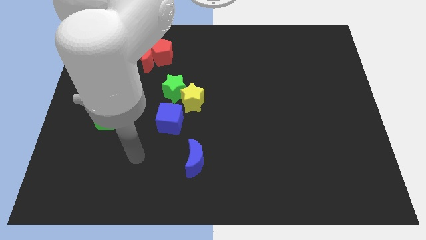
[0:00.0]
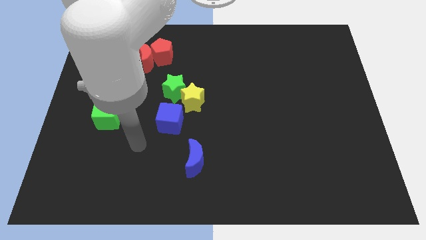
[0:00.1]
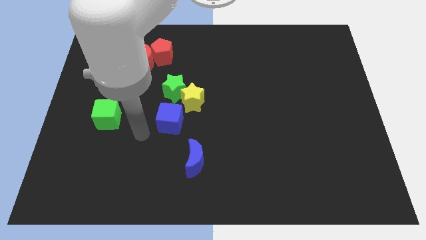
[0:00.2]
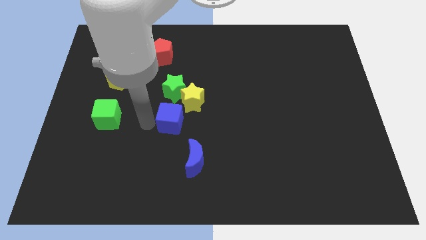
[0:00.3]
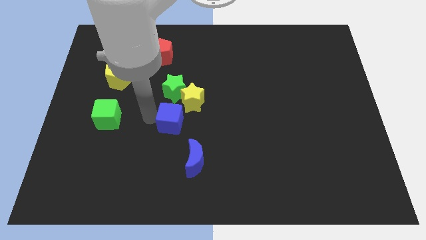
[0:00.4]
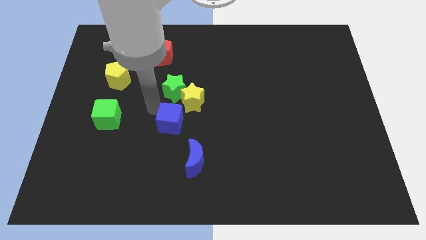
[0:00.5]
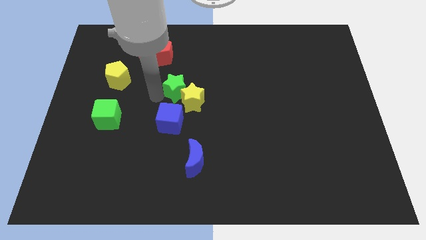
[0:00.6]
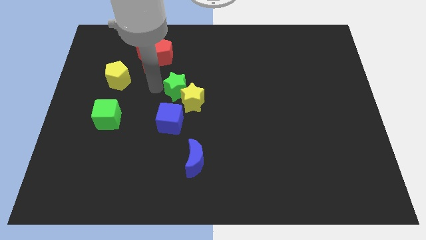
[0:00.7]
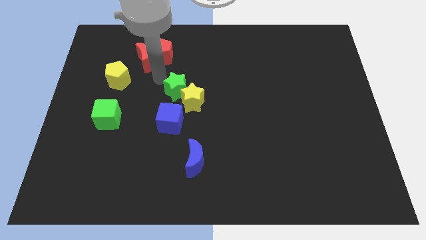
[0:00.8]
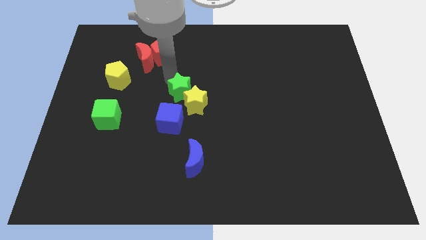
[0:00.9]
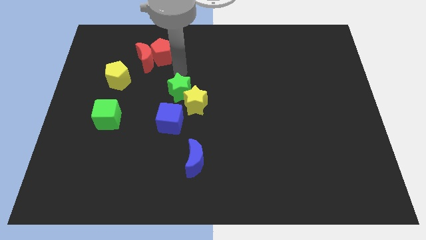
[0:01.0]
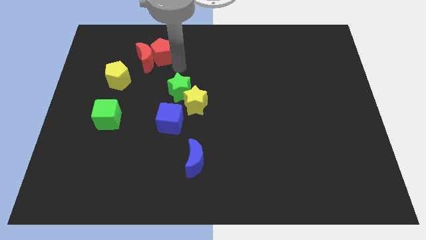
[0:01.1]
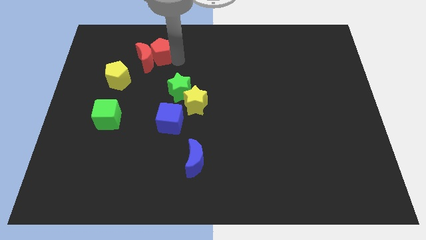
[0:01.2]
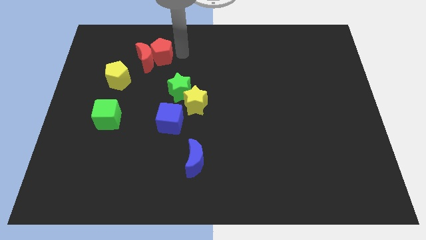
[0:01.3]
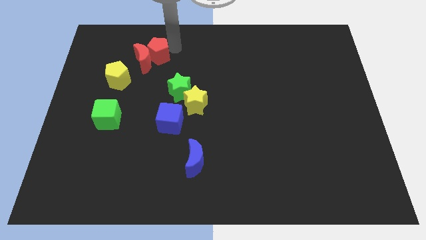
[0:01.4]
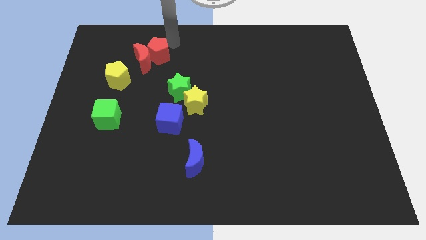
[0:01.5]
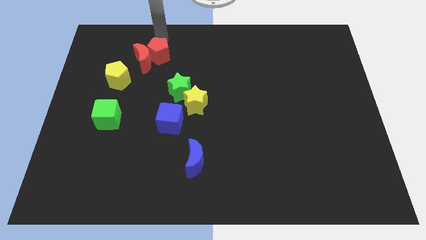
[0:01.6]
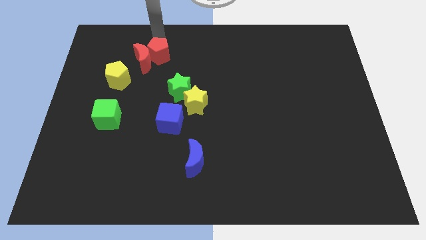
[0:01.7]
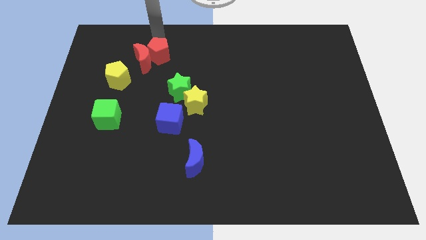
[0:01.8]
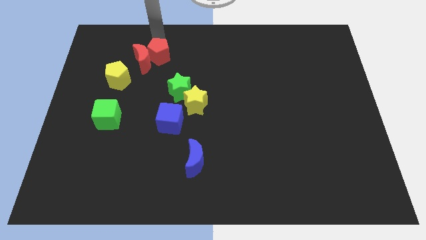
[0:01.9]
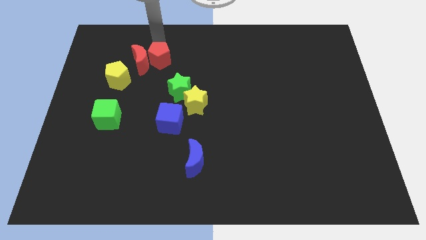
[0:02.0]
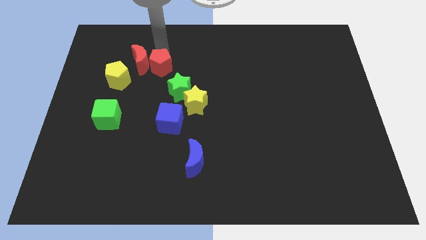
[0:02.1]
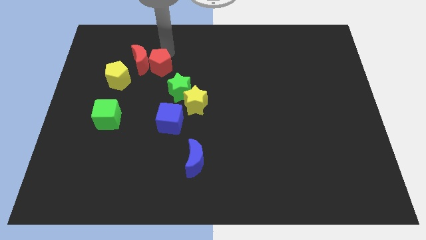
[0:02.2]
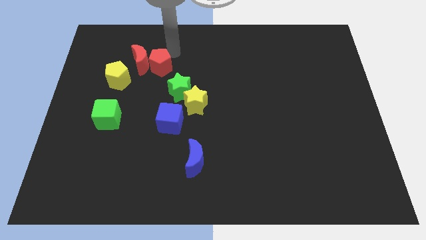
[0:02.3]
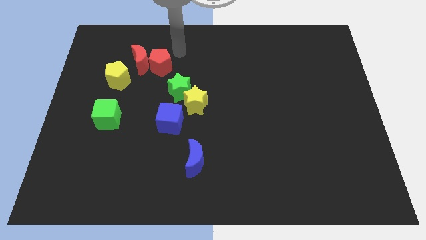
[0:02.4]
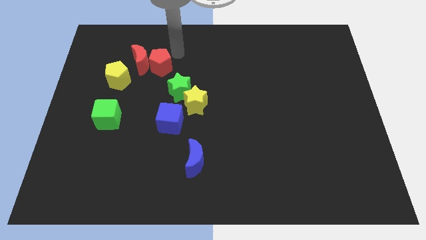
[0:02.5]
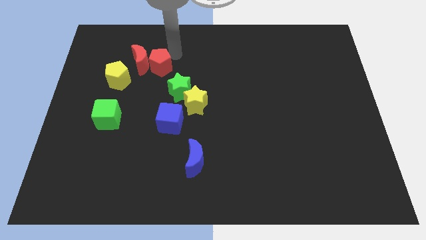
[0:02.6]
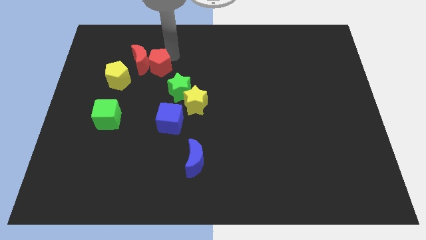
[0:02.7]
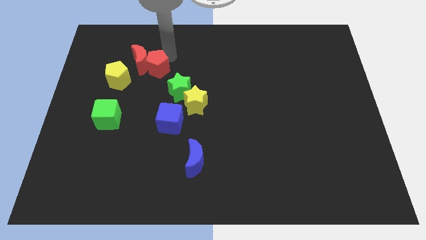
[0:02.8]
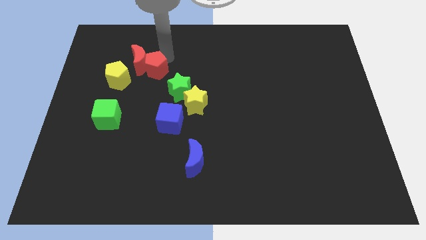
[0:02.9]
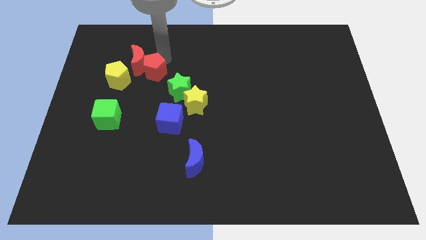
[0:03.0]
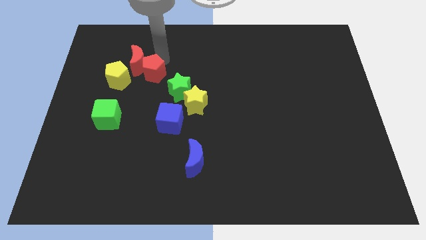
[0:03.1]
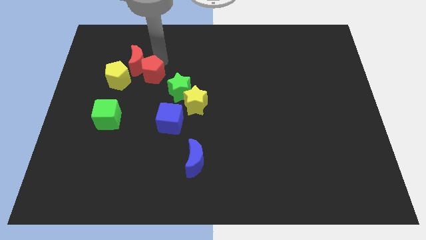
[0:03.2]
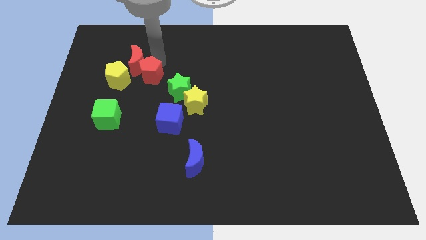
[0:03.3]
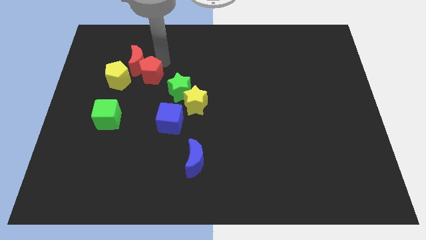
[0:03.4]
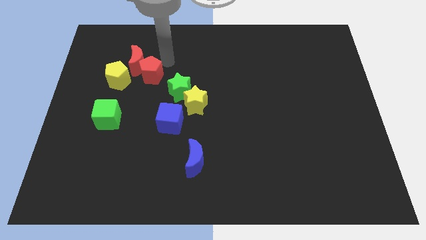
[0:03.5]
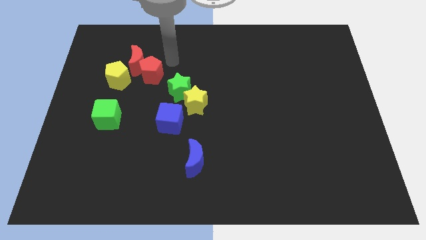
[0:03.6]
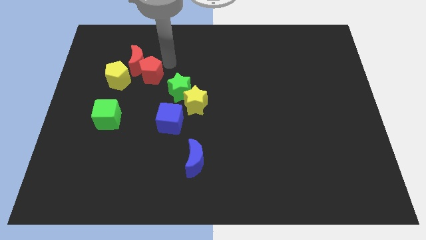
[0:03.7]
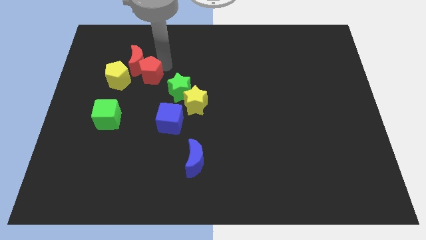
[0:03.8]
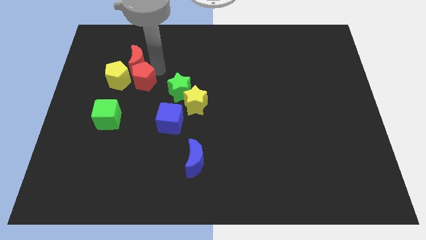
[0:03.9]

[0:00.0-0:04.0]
slide the red pentagon downwards and left a little

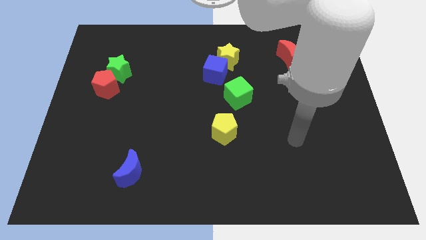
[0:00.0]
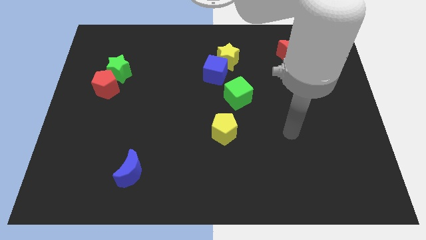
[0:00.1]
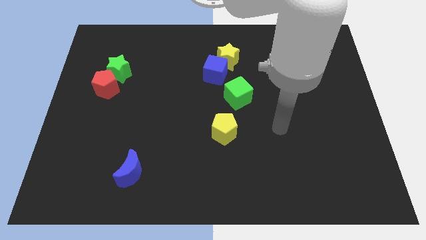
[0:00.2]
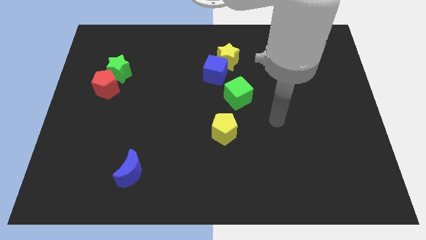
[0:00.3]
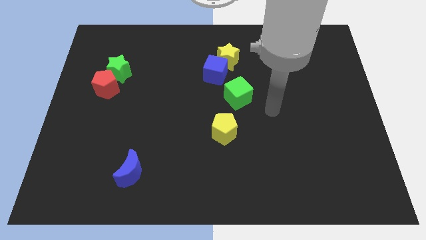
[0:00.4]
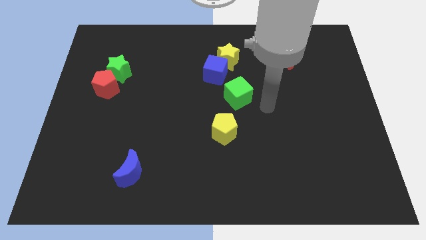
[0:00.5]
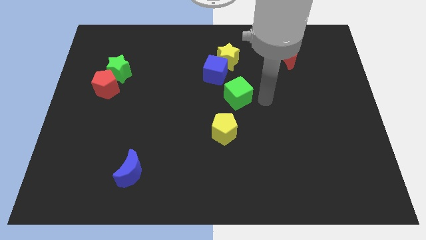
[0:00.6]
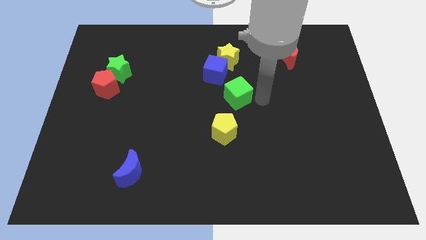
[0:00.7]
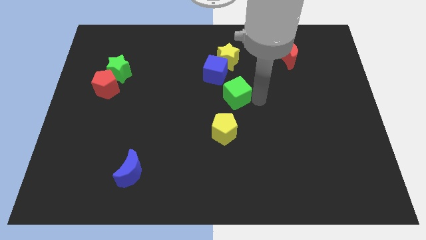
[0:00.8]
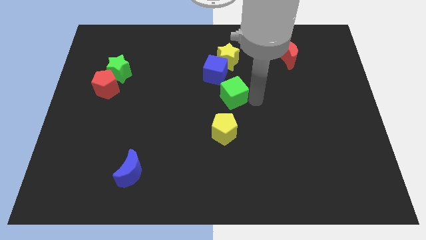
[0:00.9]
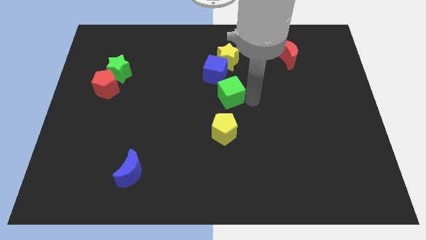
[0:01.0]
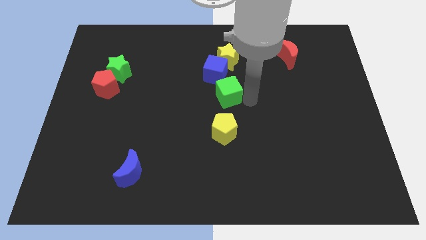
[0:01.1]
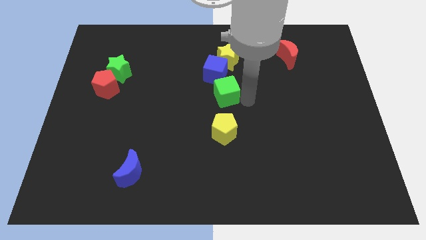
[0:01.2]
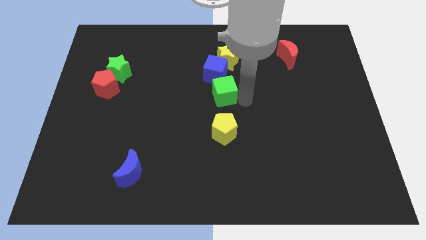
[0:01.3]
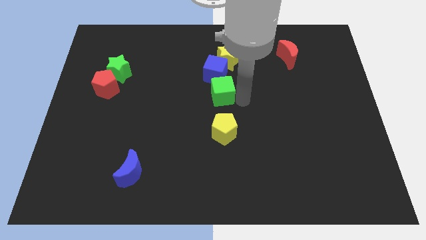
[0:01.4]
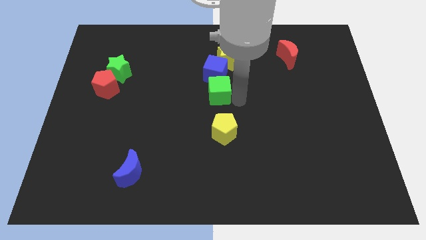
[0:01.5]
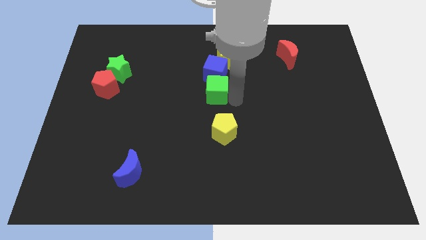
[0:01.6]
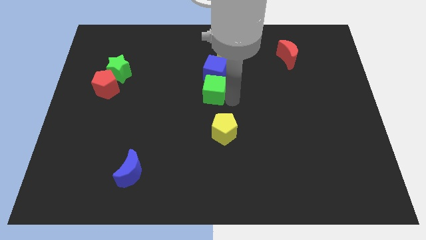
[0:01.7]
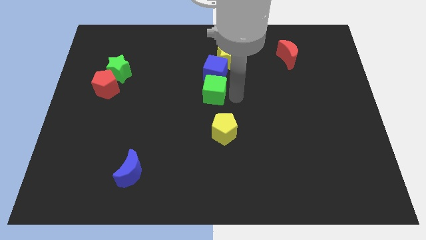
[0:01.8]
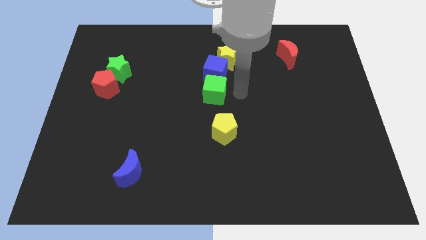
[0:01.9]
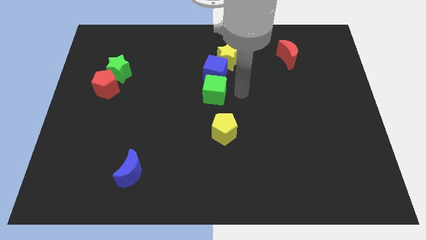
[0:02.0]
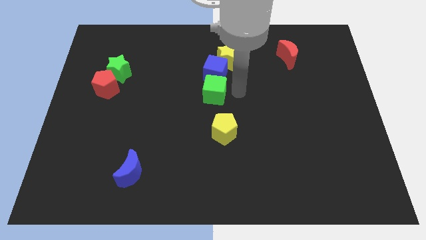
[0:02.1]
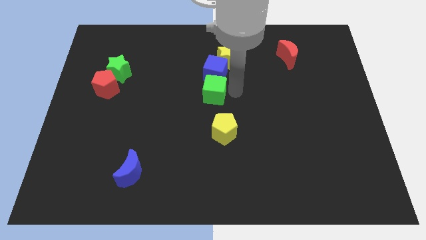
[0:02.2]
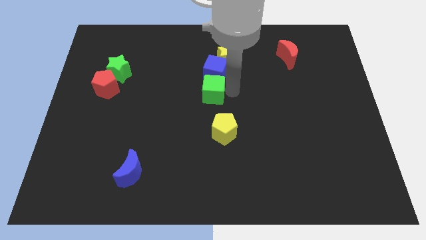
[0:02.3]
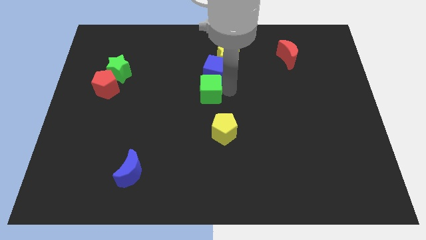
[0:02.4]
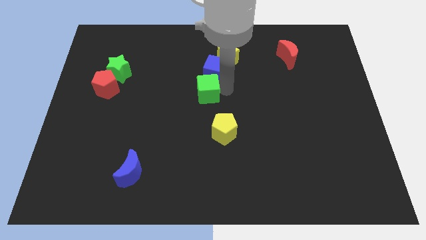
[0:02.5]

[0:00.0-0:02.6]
push the green cube slightly left

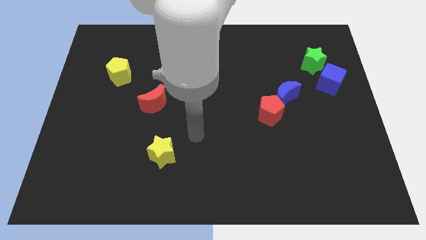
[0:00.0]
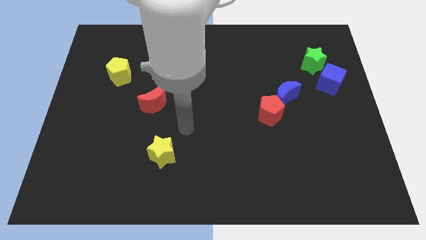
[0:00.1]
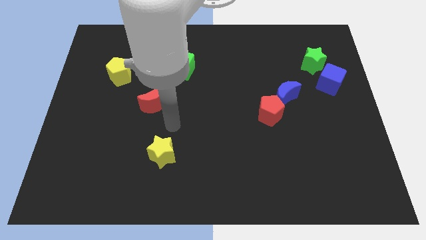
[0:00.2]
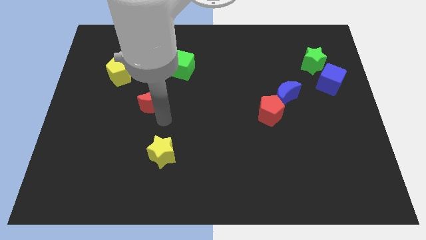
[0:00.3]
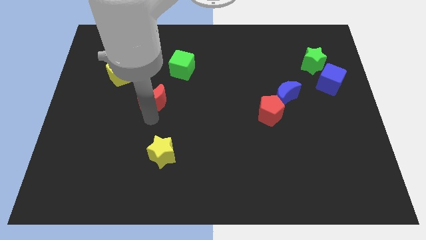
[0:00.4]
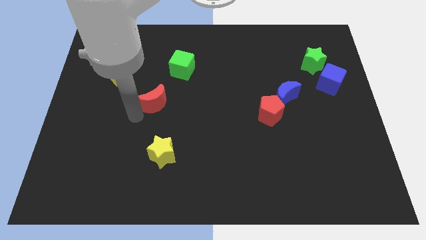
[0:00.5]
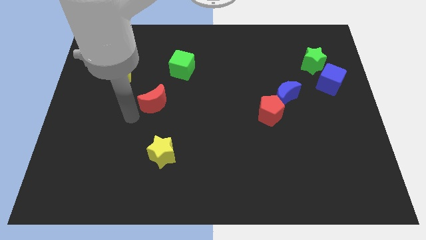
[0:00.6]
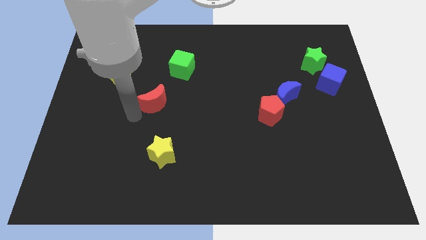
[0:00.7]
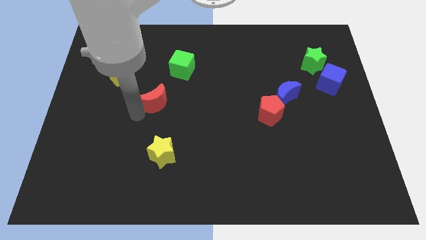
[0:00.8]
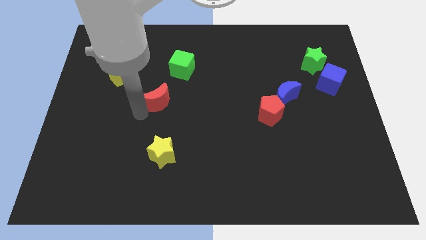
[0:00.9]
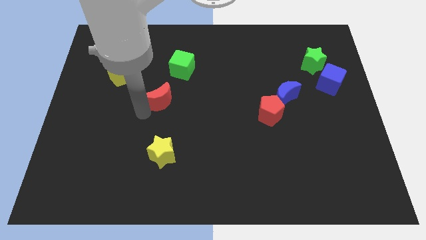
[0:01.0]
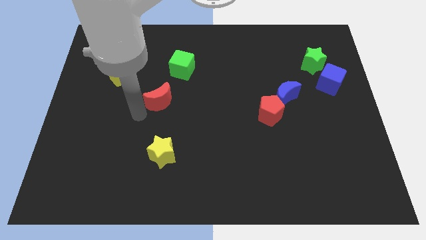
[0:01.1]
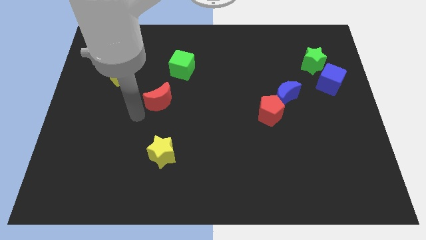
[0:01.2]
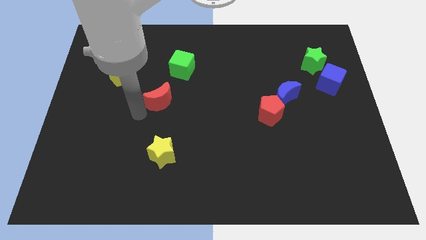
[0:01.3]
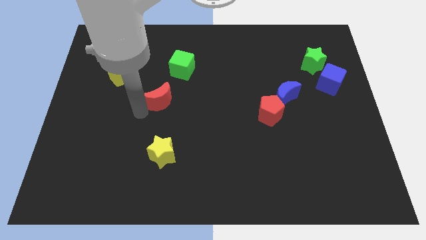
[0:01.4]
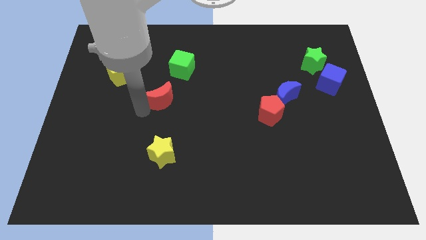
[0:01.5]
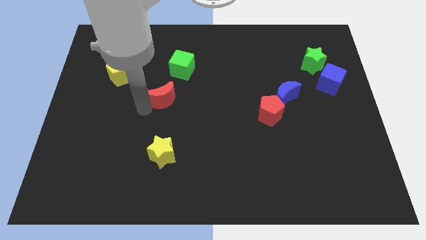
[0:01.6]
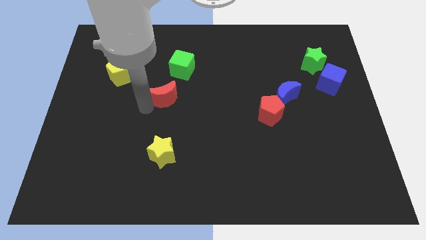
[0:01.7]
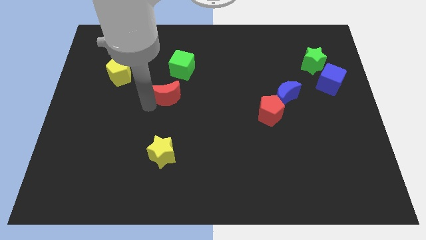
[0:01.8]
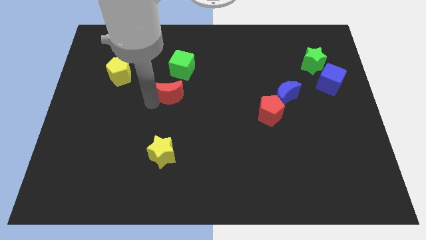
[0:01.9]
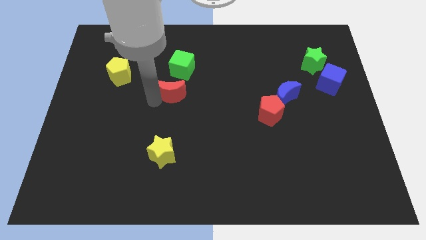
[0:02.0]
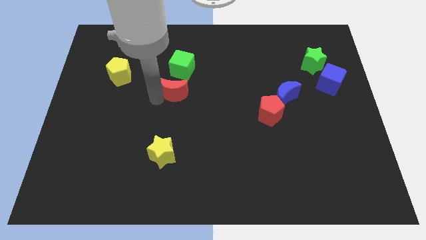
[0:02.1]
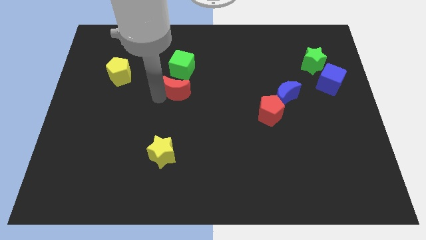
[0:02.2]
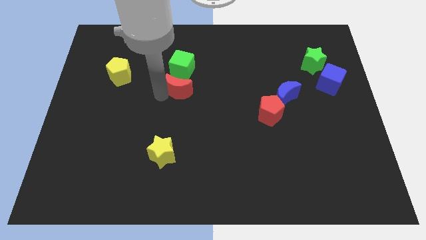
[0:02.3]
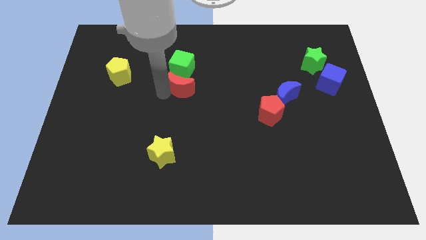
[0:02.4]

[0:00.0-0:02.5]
push the red moon a little bit upwards and then right
